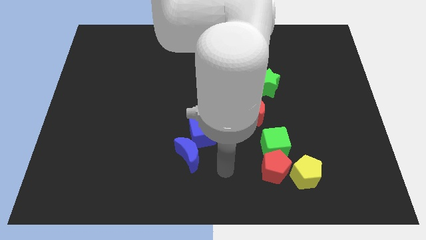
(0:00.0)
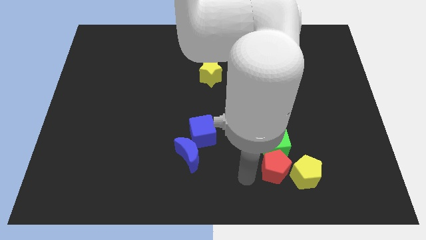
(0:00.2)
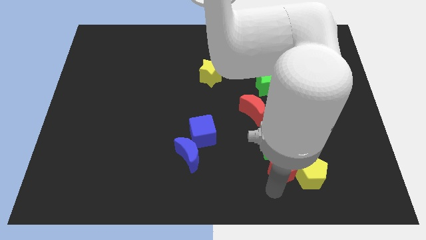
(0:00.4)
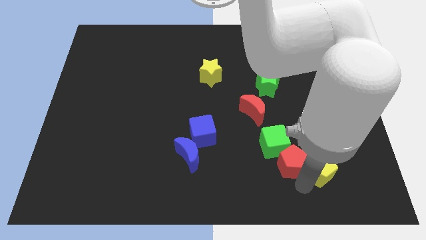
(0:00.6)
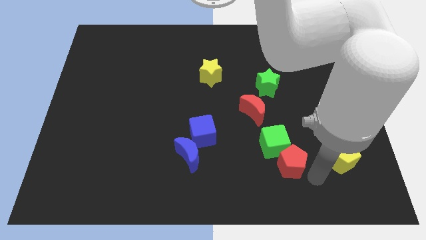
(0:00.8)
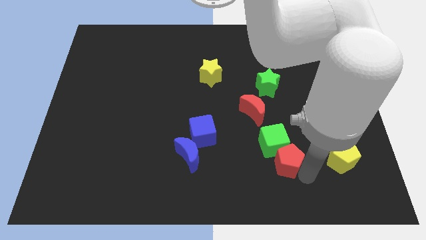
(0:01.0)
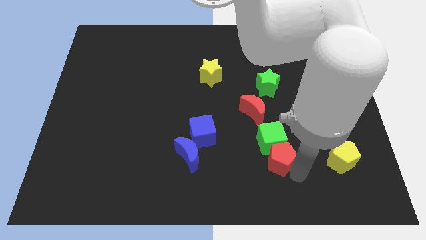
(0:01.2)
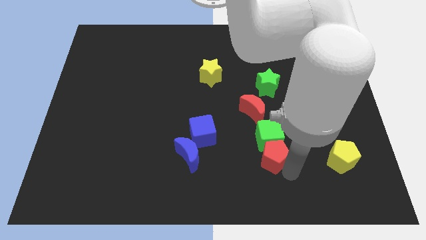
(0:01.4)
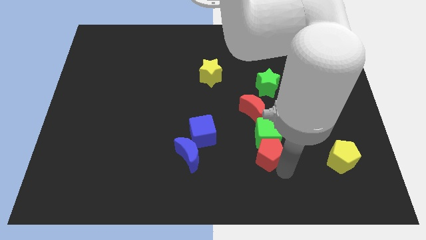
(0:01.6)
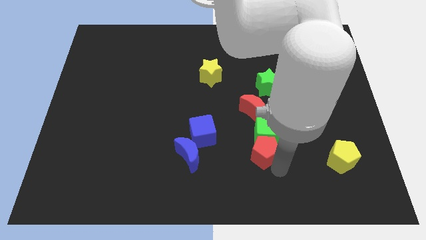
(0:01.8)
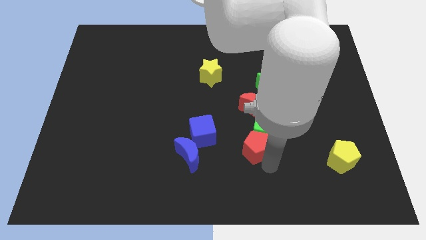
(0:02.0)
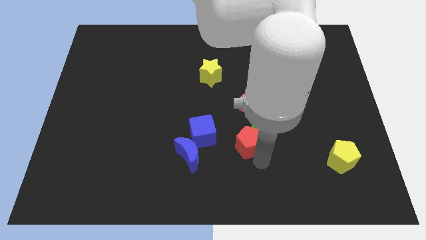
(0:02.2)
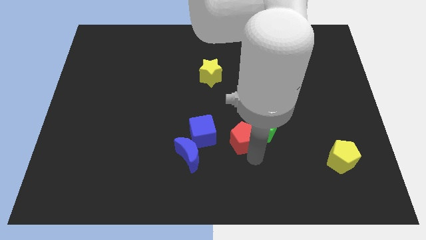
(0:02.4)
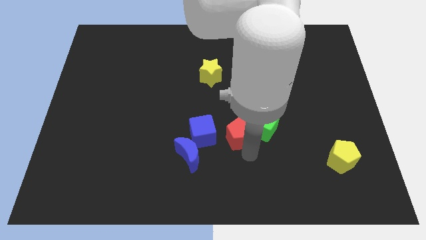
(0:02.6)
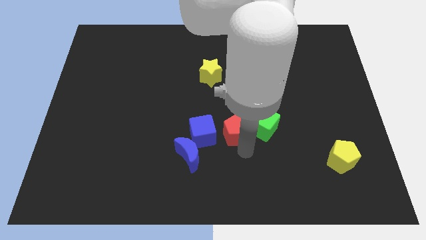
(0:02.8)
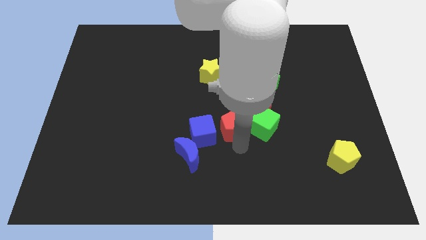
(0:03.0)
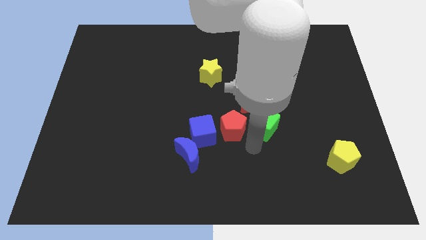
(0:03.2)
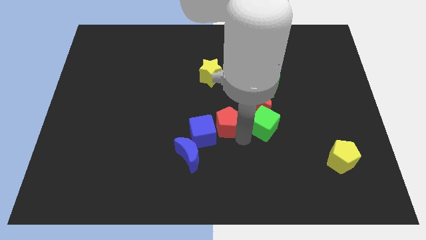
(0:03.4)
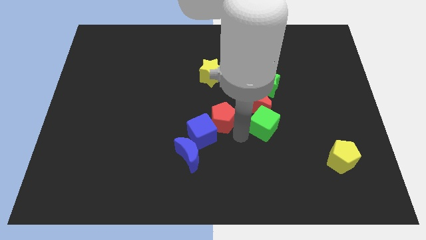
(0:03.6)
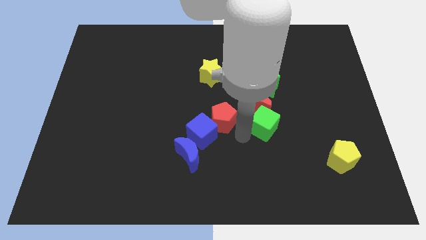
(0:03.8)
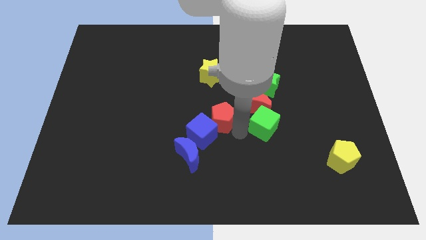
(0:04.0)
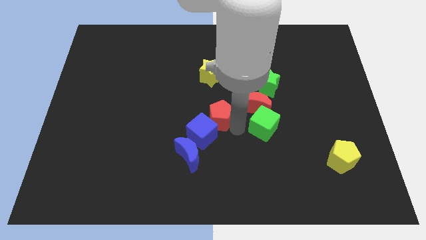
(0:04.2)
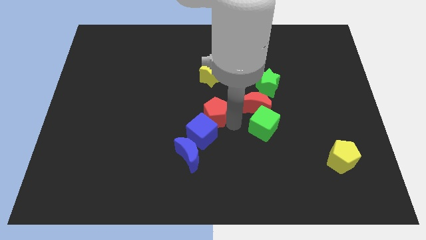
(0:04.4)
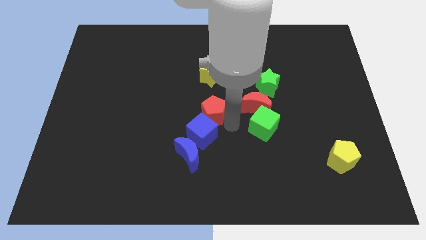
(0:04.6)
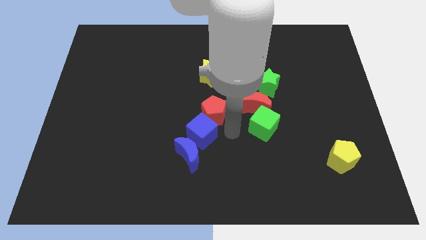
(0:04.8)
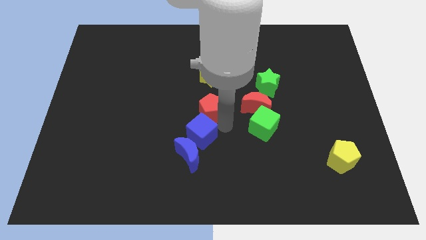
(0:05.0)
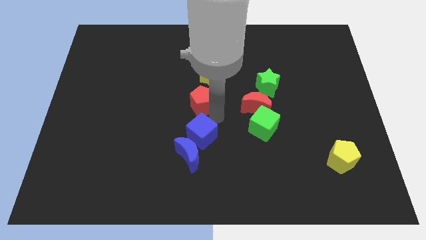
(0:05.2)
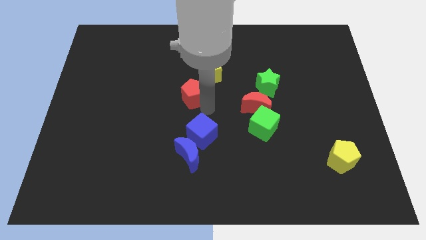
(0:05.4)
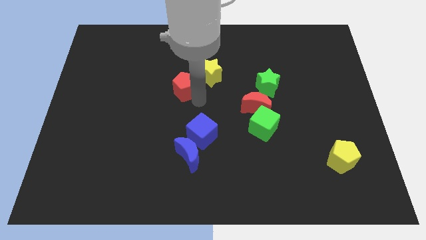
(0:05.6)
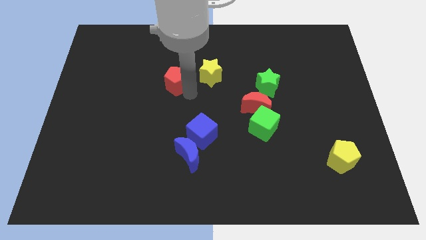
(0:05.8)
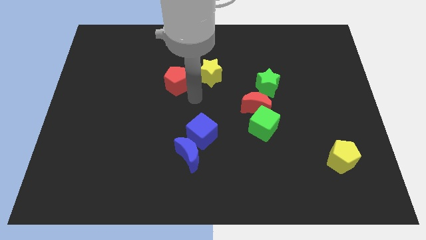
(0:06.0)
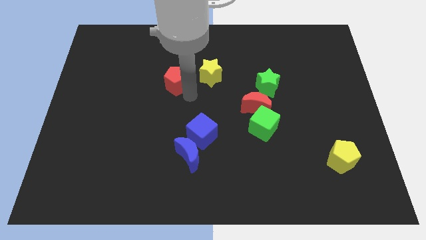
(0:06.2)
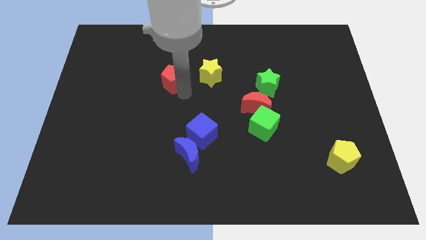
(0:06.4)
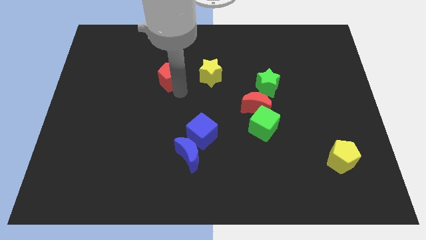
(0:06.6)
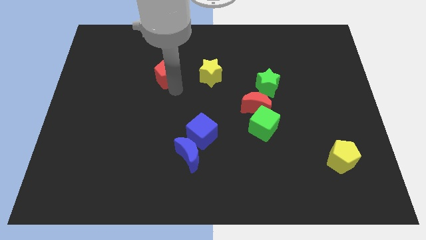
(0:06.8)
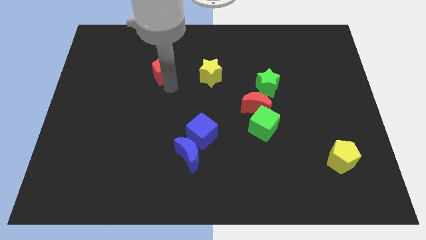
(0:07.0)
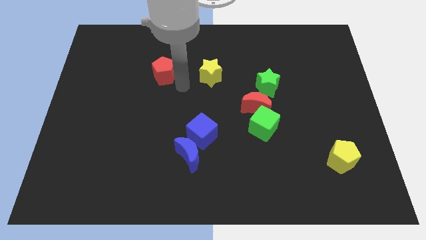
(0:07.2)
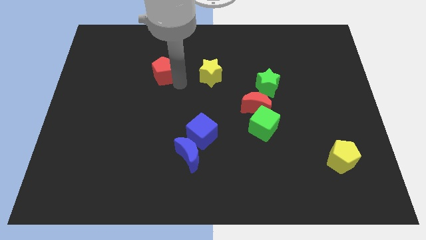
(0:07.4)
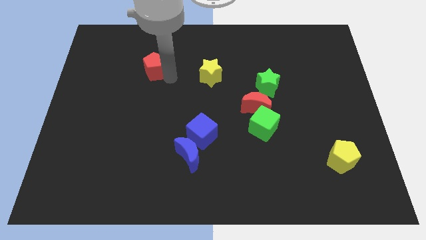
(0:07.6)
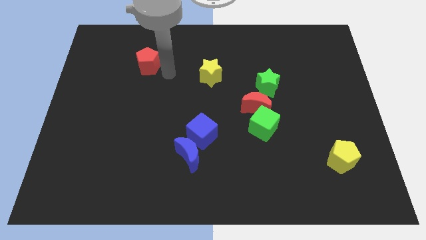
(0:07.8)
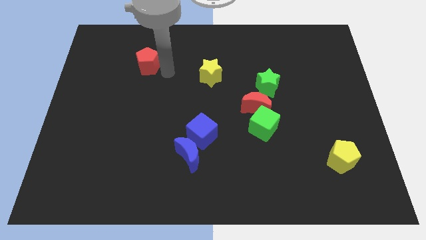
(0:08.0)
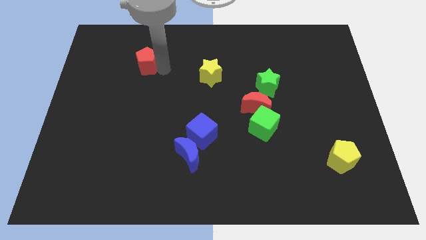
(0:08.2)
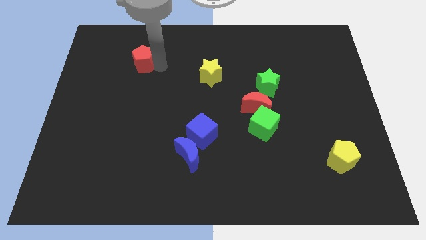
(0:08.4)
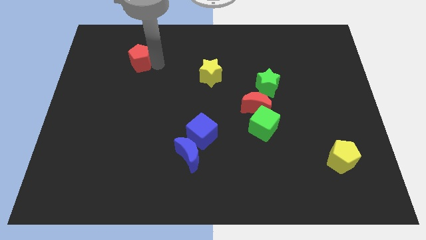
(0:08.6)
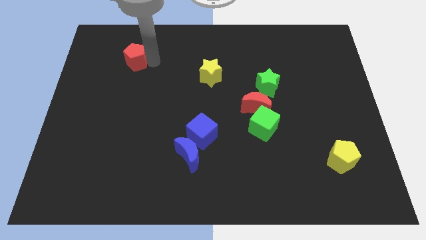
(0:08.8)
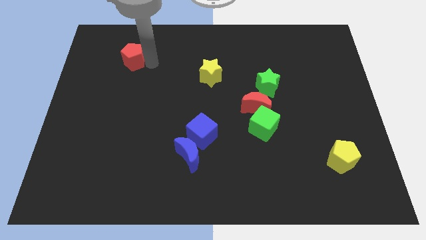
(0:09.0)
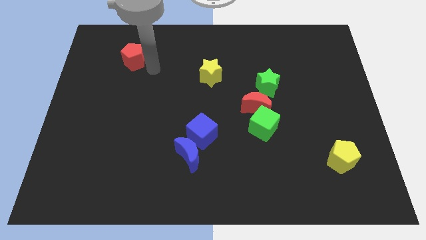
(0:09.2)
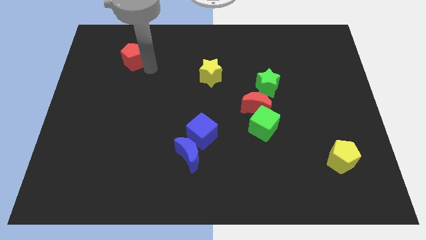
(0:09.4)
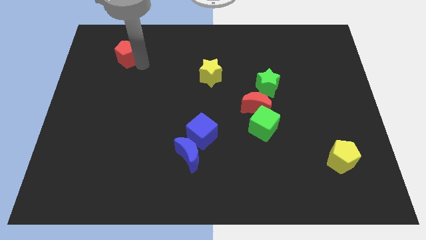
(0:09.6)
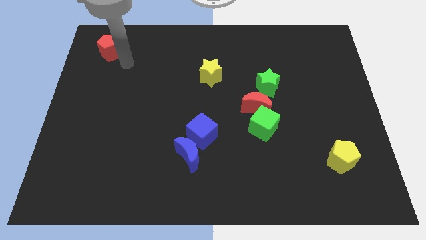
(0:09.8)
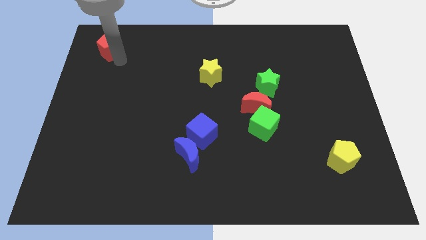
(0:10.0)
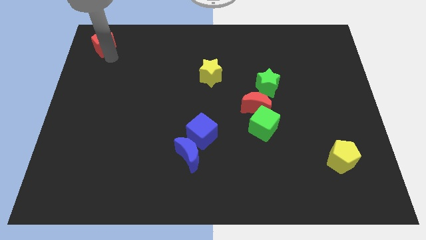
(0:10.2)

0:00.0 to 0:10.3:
move the red pentagon to the upper left corner

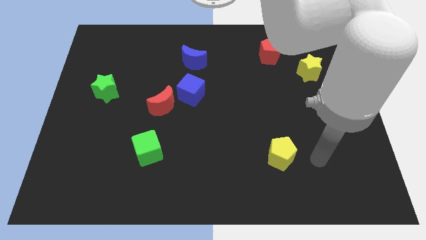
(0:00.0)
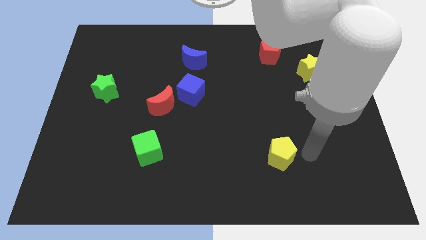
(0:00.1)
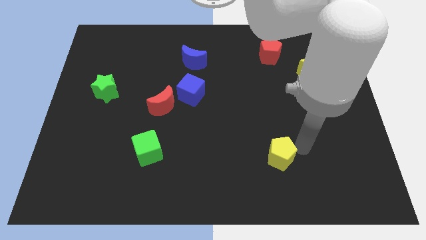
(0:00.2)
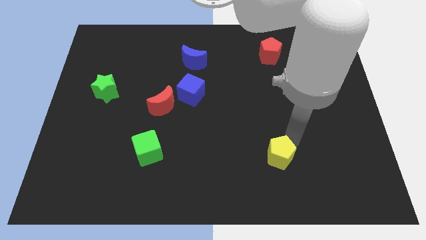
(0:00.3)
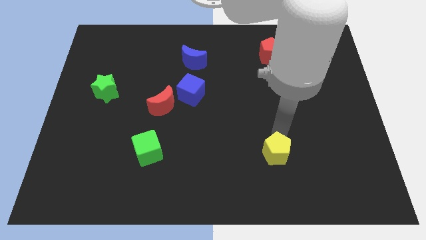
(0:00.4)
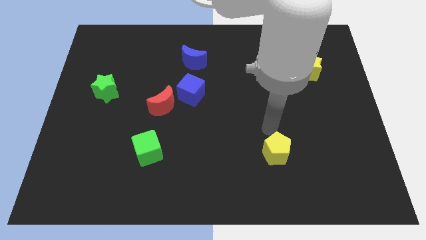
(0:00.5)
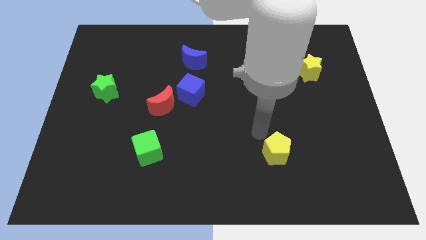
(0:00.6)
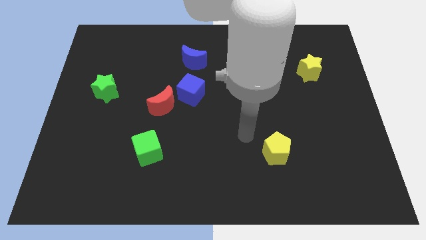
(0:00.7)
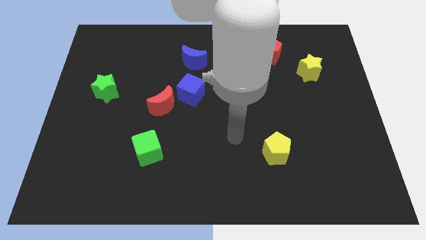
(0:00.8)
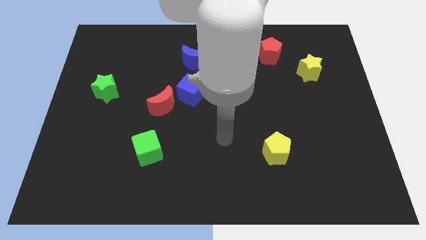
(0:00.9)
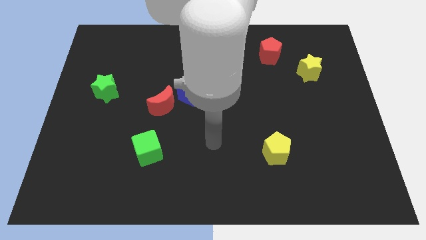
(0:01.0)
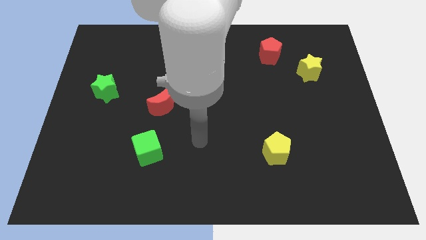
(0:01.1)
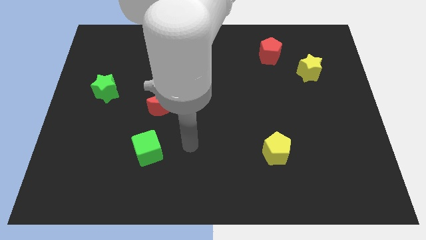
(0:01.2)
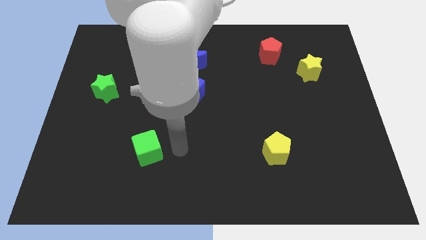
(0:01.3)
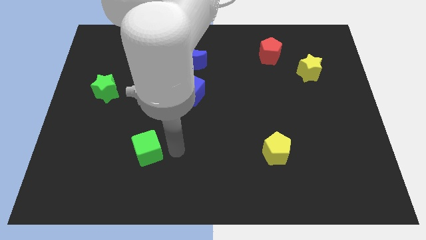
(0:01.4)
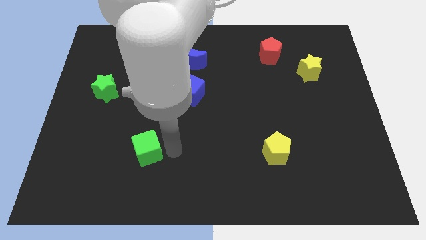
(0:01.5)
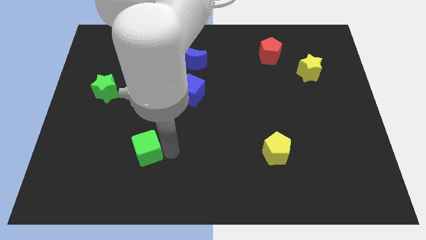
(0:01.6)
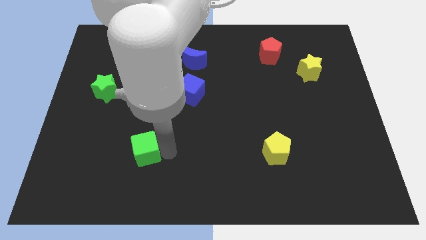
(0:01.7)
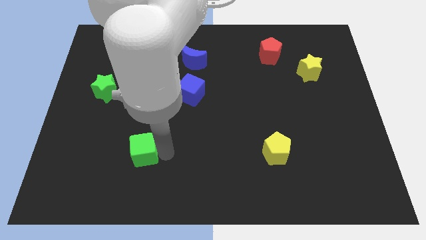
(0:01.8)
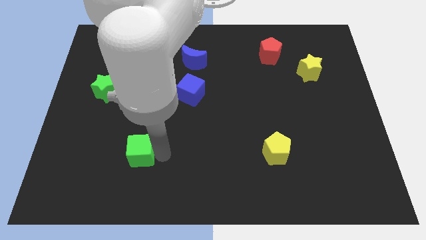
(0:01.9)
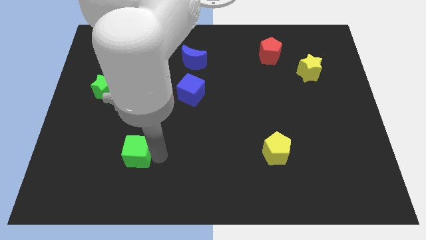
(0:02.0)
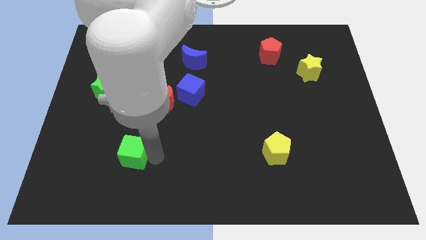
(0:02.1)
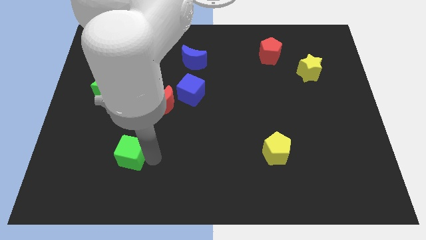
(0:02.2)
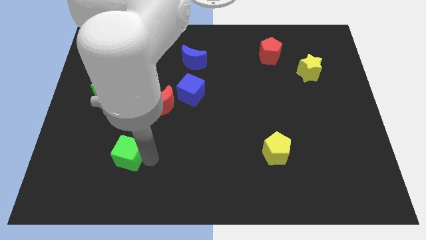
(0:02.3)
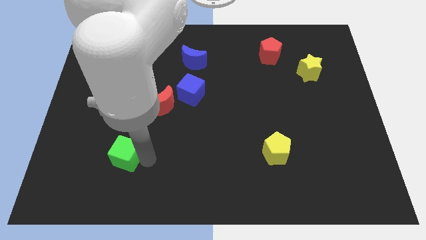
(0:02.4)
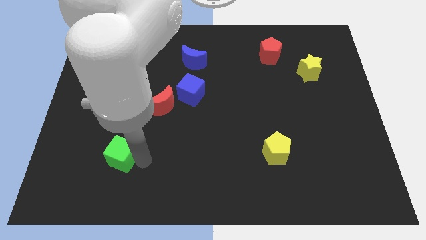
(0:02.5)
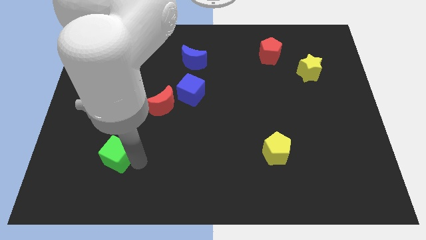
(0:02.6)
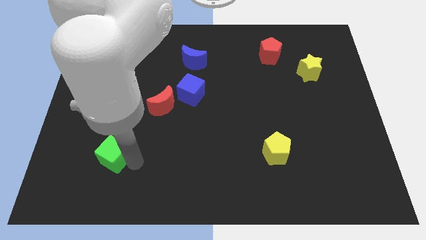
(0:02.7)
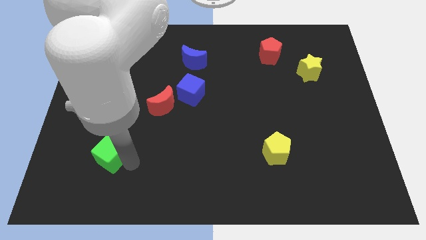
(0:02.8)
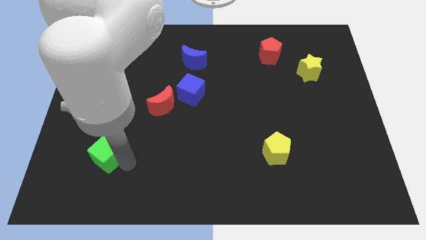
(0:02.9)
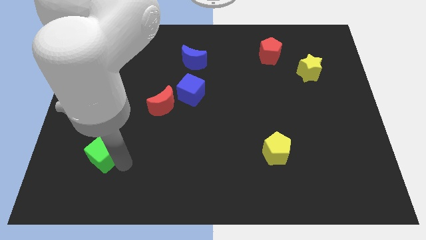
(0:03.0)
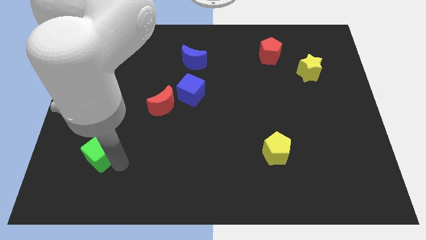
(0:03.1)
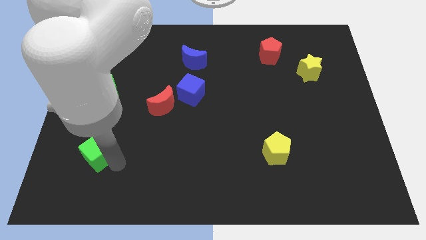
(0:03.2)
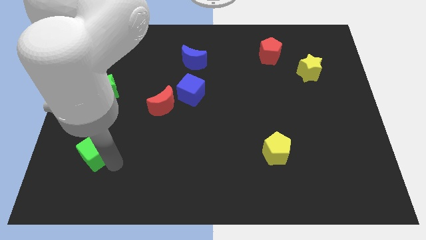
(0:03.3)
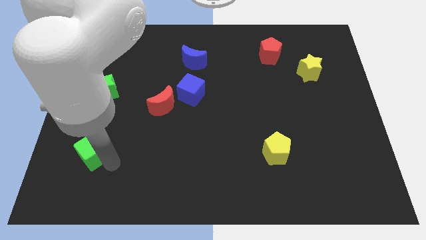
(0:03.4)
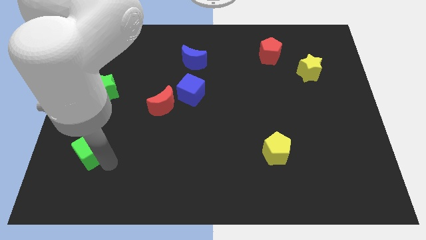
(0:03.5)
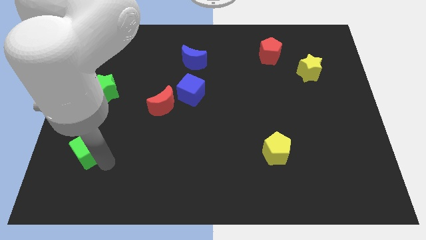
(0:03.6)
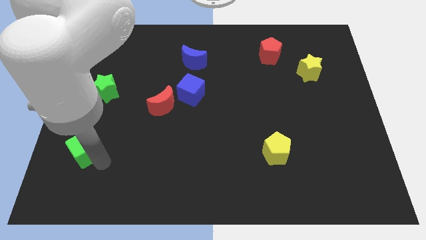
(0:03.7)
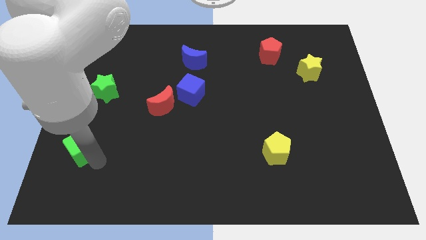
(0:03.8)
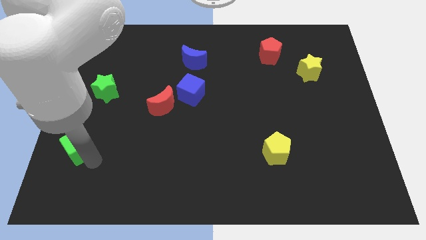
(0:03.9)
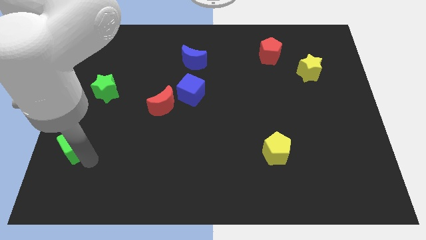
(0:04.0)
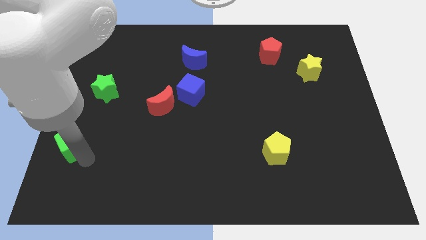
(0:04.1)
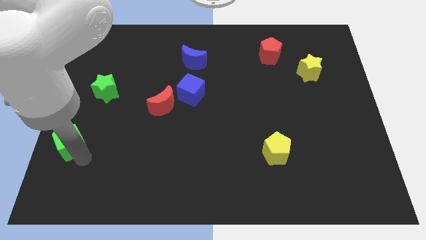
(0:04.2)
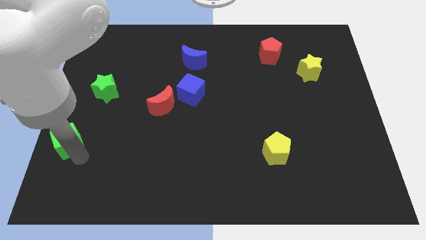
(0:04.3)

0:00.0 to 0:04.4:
push the green cube to the left side of the board
